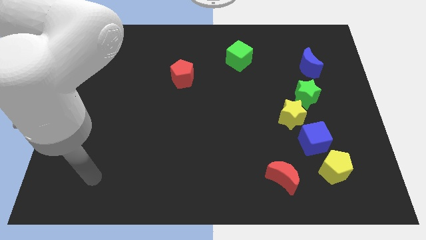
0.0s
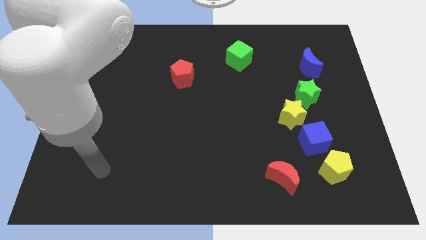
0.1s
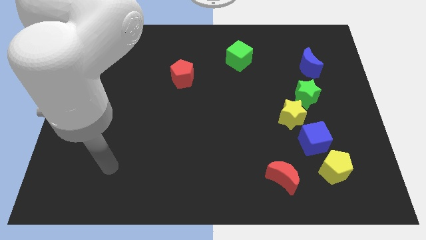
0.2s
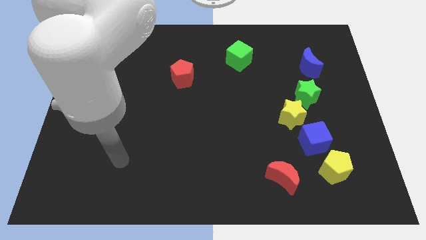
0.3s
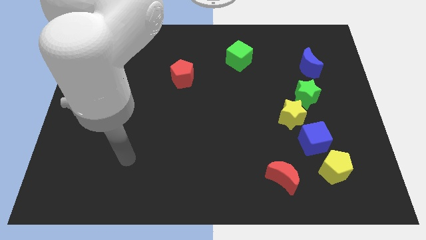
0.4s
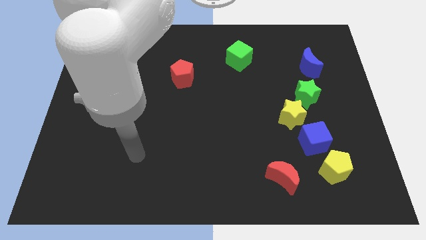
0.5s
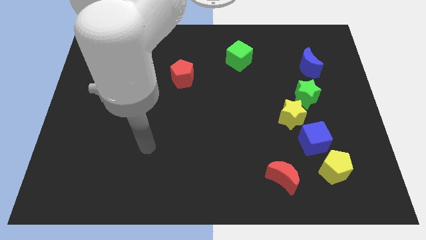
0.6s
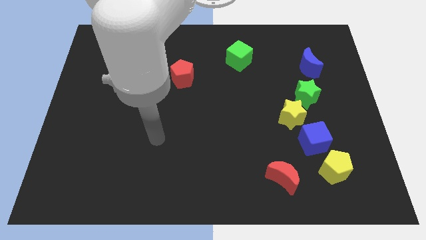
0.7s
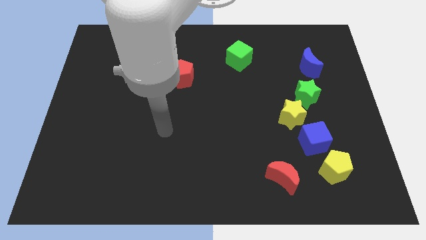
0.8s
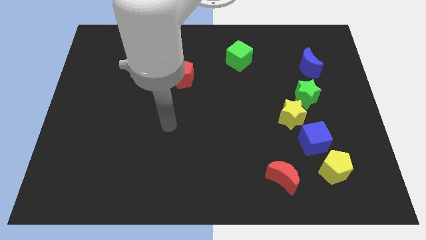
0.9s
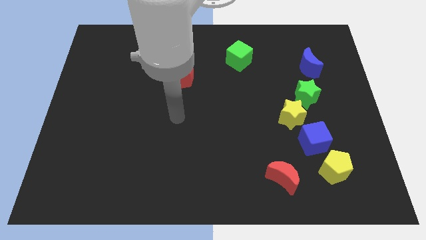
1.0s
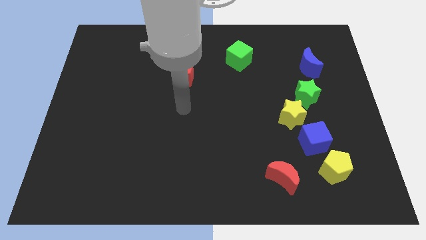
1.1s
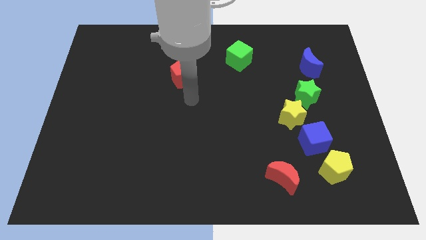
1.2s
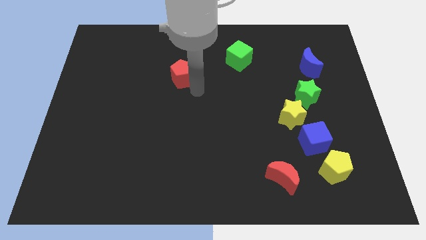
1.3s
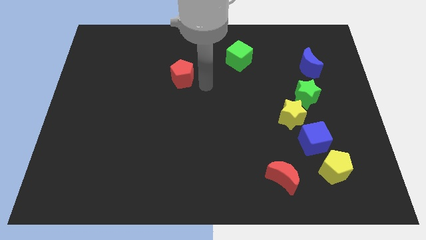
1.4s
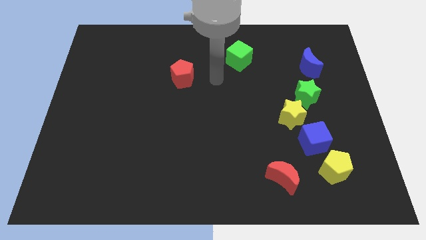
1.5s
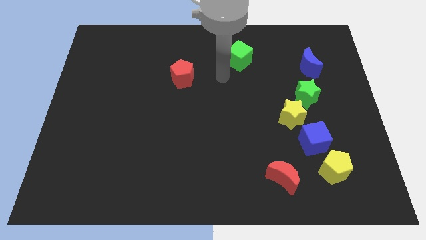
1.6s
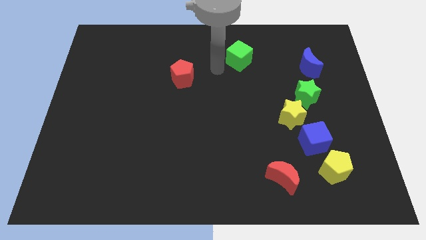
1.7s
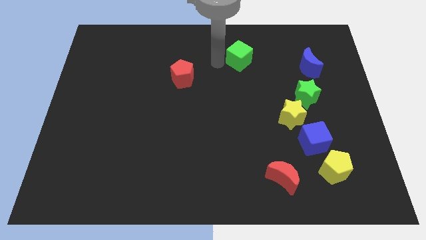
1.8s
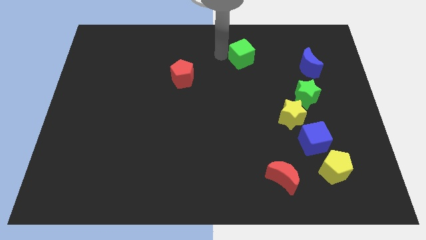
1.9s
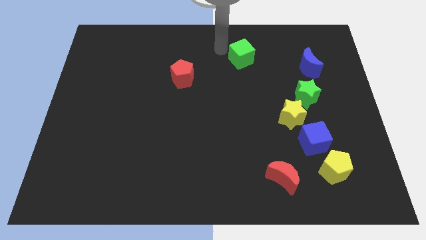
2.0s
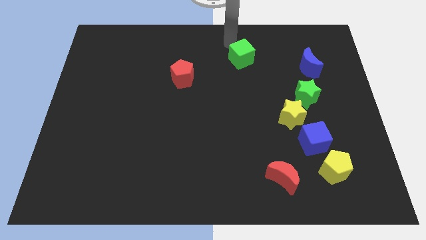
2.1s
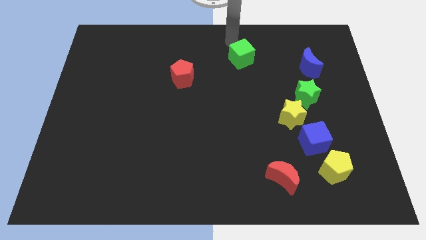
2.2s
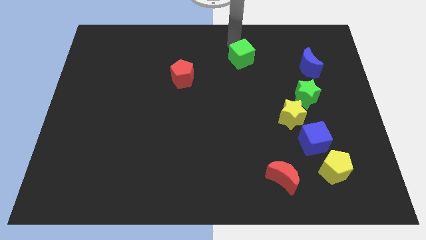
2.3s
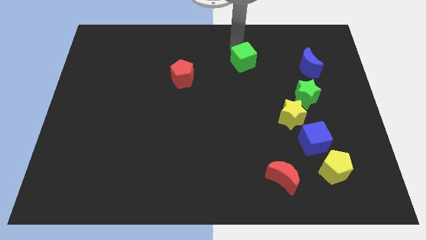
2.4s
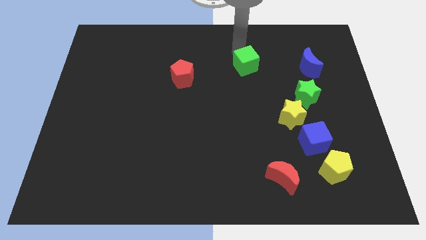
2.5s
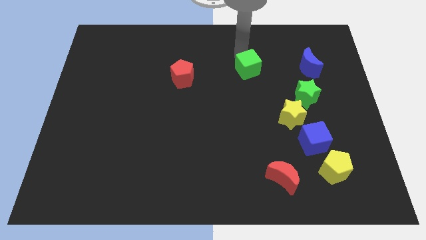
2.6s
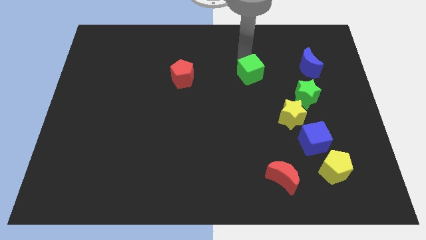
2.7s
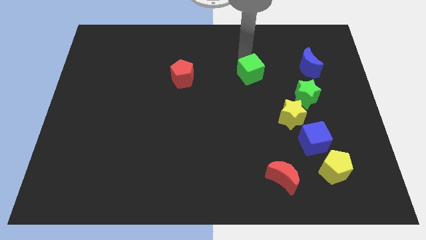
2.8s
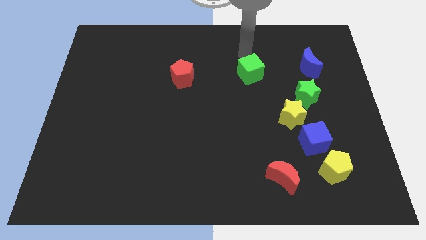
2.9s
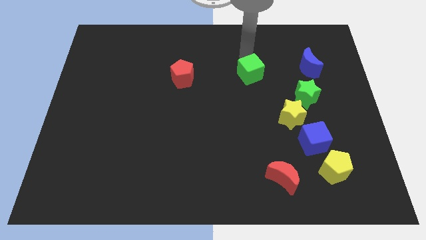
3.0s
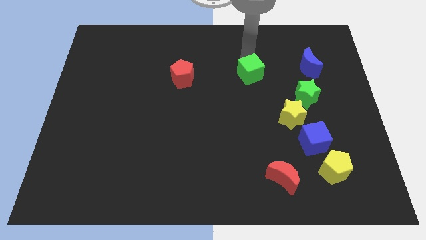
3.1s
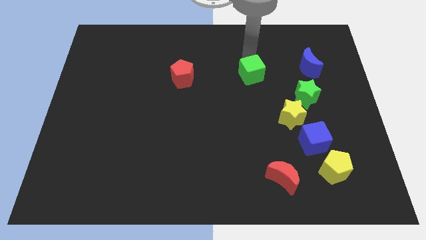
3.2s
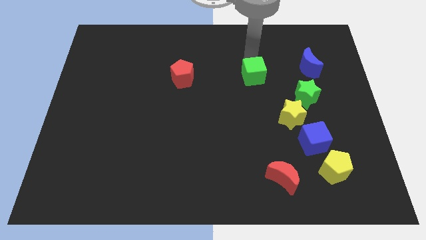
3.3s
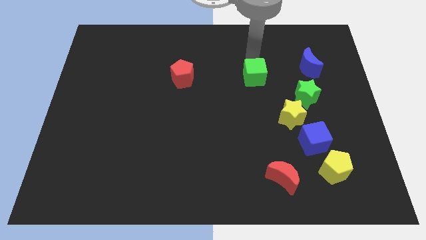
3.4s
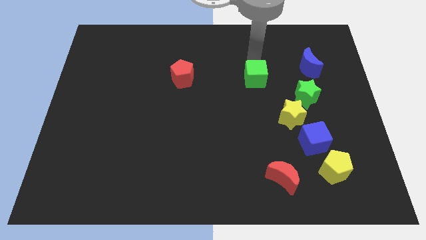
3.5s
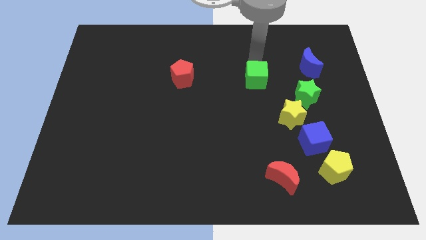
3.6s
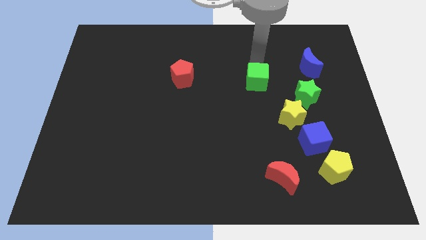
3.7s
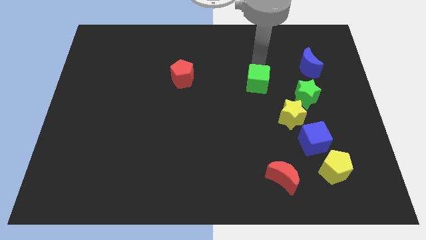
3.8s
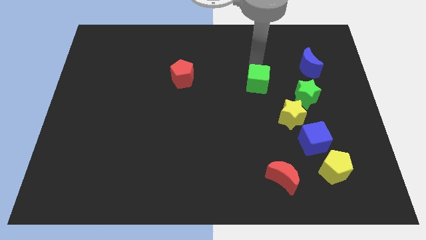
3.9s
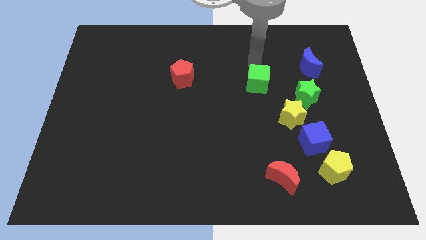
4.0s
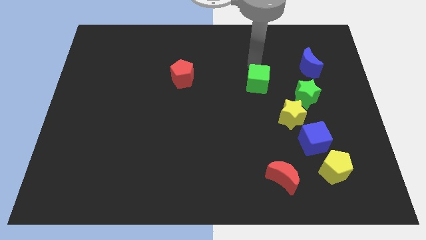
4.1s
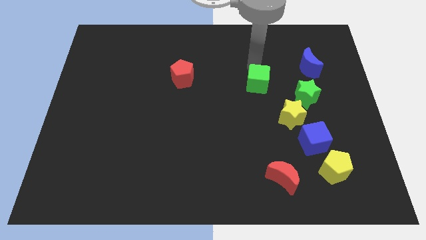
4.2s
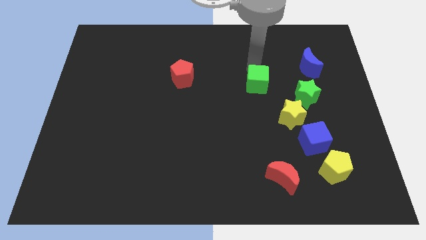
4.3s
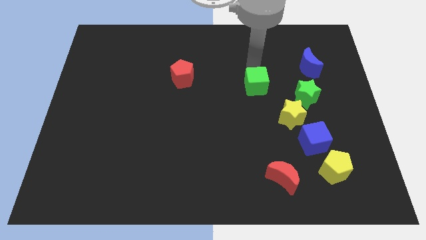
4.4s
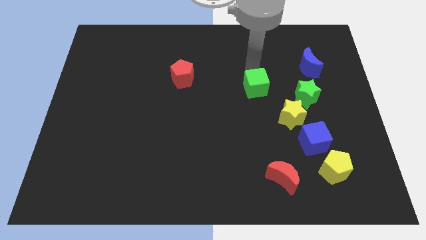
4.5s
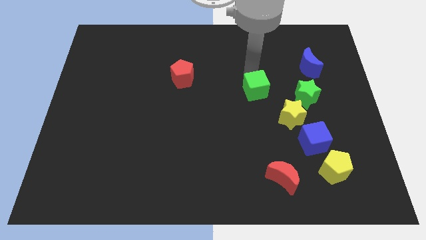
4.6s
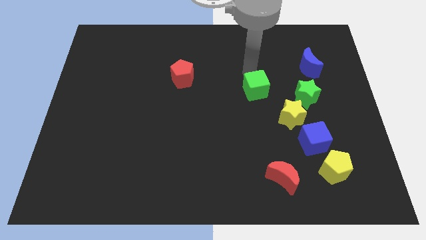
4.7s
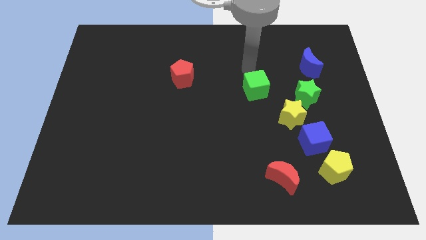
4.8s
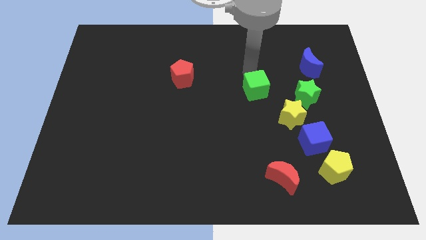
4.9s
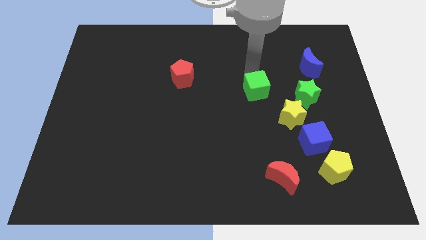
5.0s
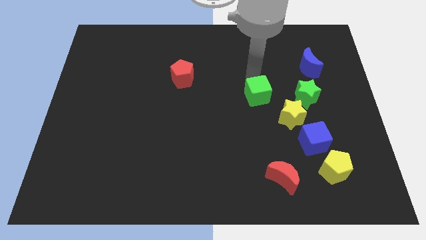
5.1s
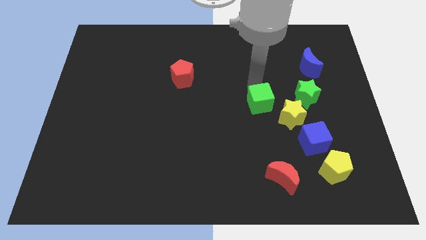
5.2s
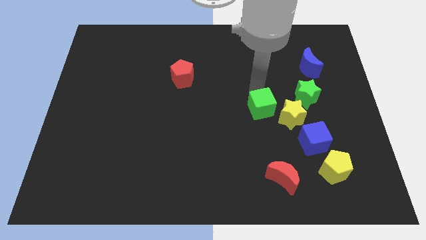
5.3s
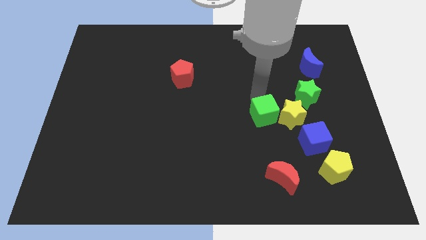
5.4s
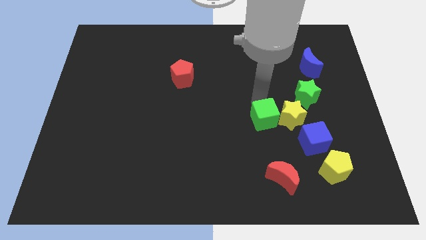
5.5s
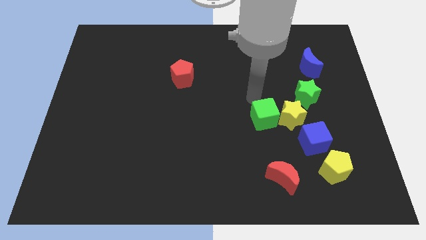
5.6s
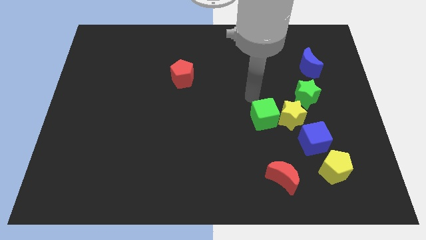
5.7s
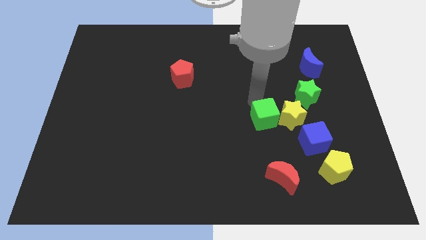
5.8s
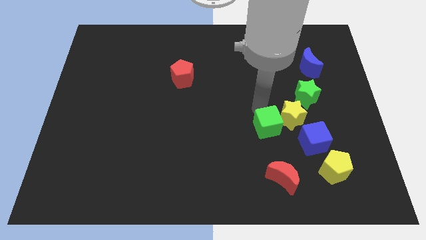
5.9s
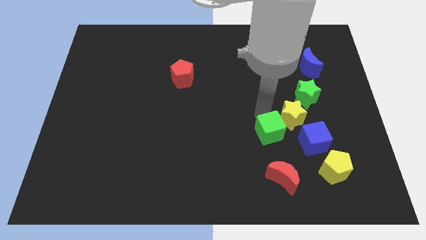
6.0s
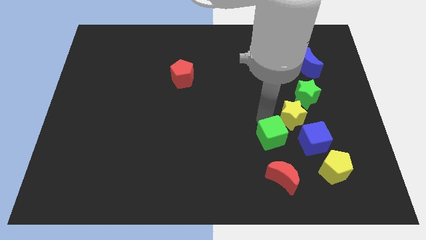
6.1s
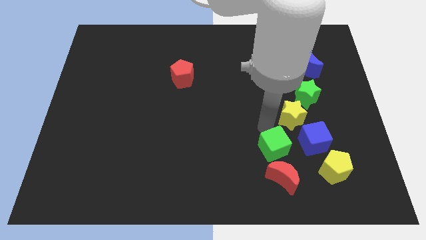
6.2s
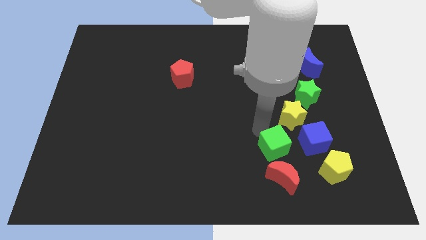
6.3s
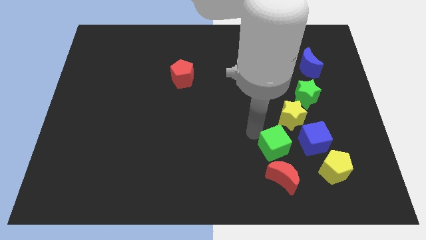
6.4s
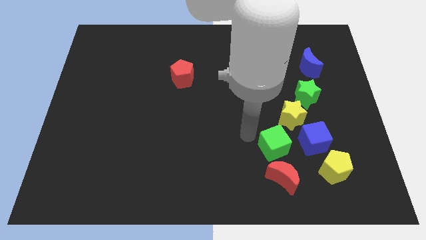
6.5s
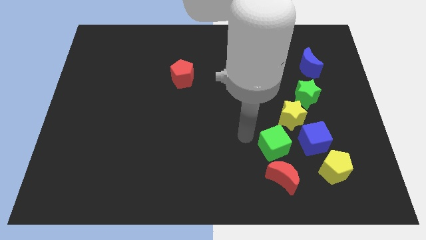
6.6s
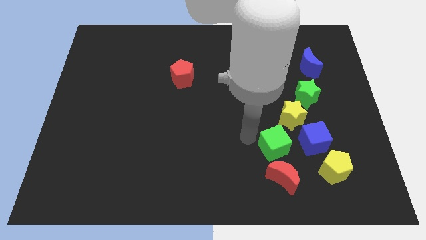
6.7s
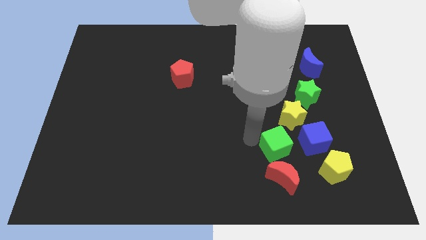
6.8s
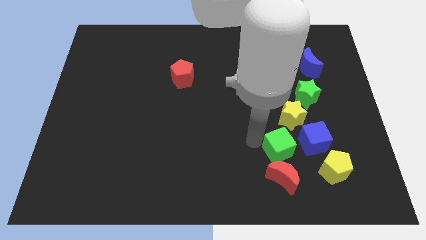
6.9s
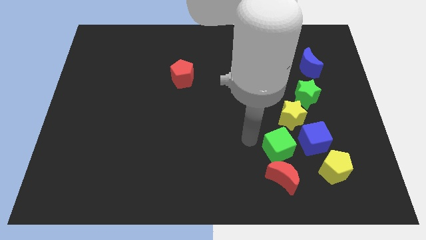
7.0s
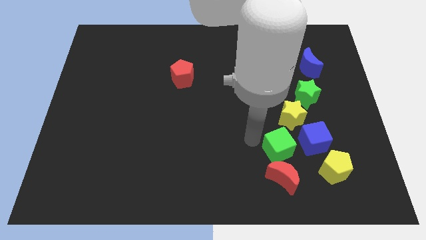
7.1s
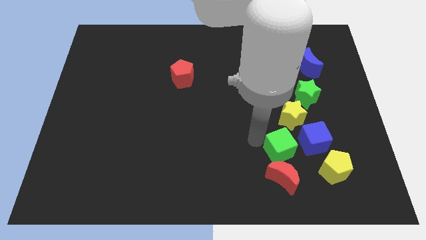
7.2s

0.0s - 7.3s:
put the green cube diagonally up and to the right of the red moon
